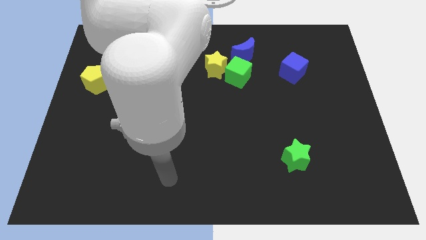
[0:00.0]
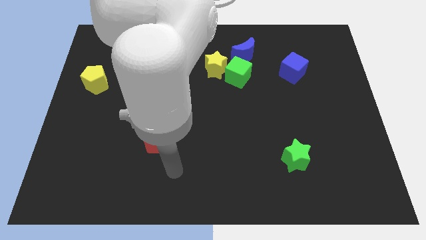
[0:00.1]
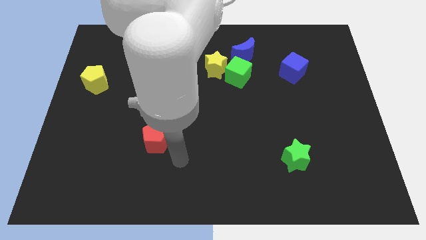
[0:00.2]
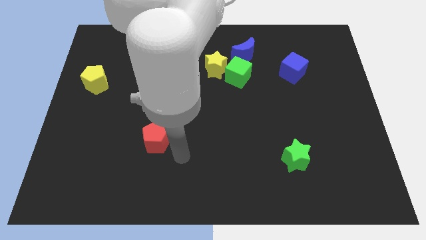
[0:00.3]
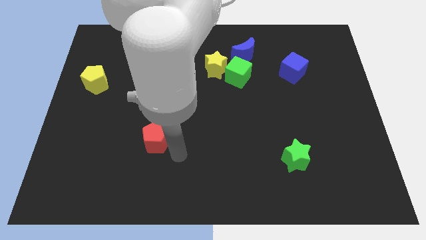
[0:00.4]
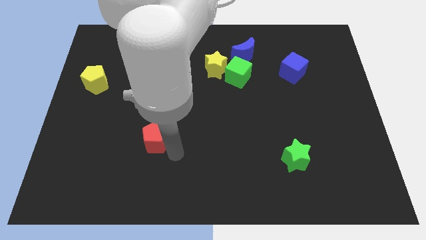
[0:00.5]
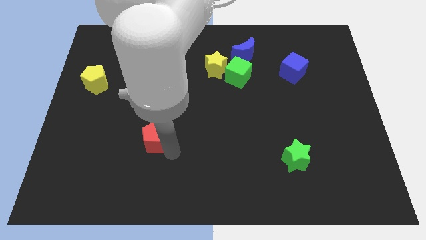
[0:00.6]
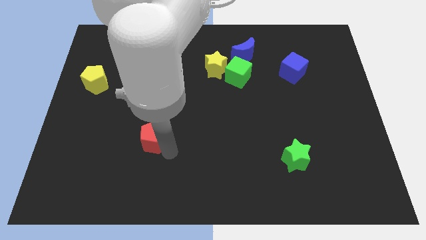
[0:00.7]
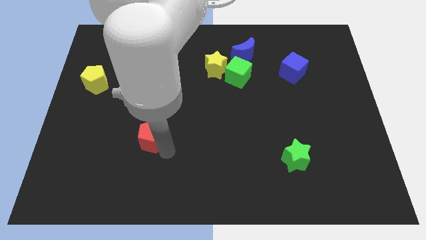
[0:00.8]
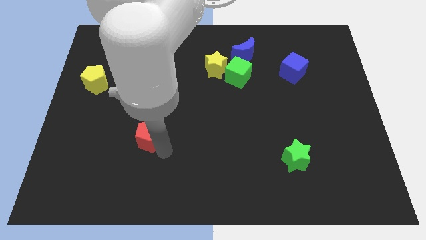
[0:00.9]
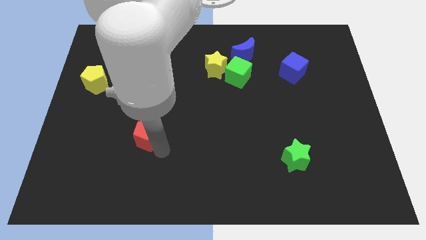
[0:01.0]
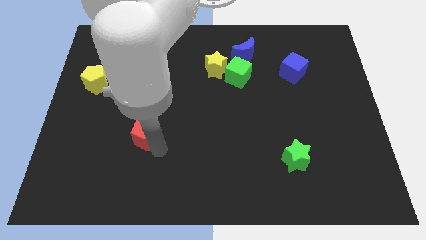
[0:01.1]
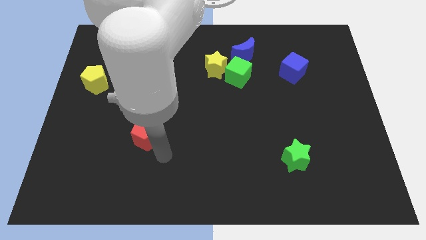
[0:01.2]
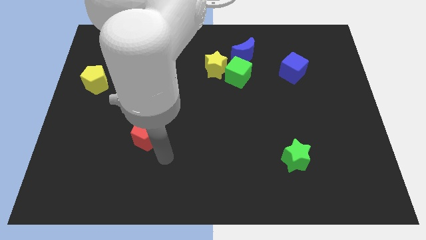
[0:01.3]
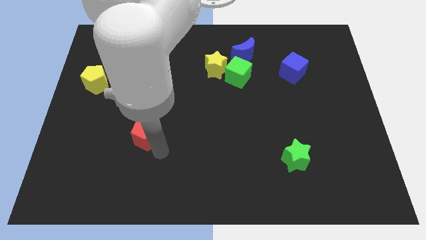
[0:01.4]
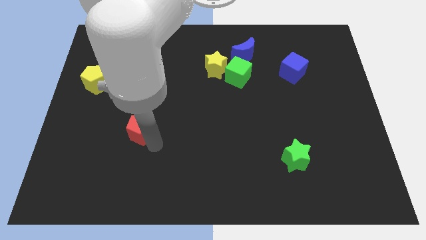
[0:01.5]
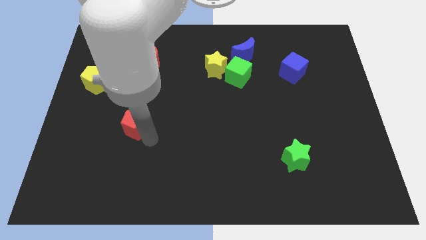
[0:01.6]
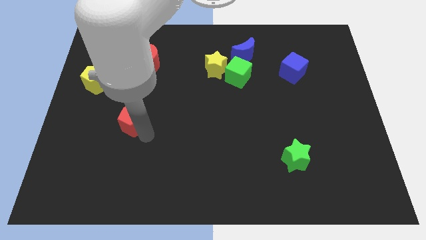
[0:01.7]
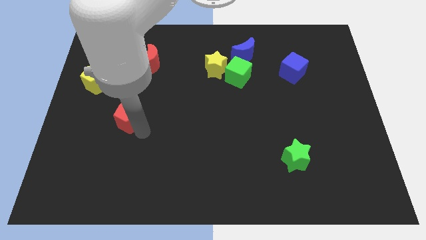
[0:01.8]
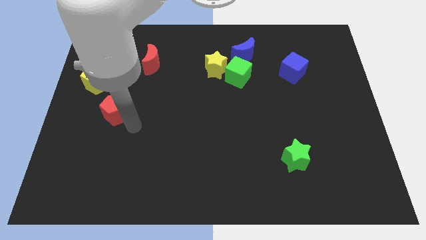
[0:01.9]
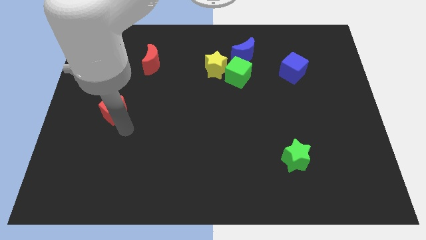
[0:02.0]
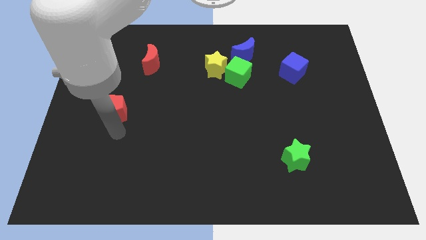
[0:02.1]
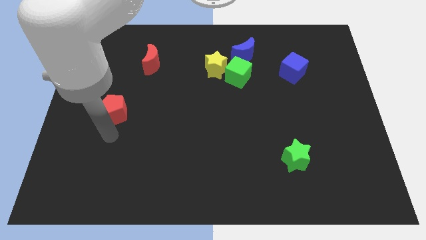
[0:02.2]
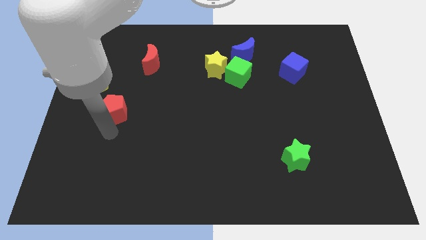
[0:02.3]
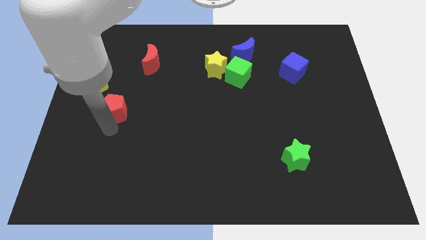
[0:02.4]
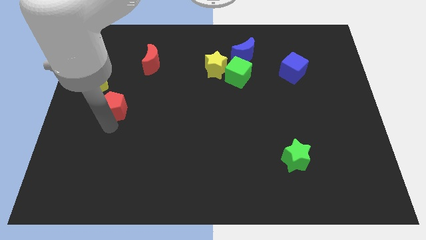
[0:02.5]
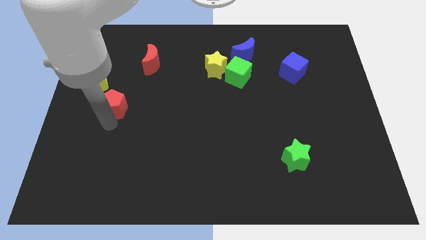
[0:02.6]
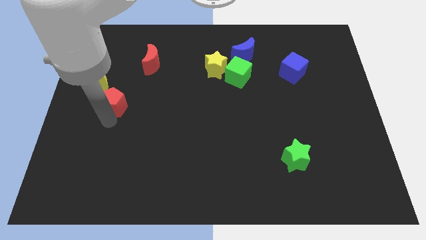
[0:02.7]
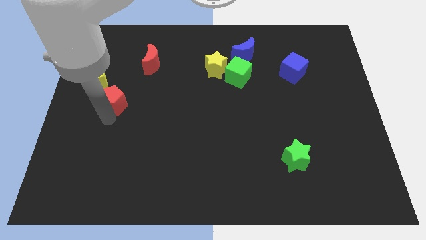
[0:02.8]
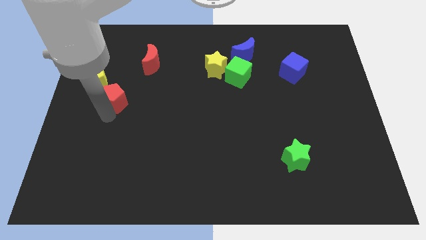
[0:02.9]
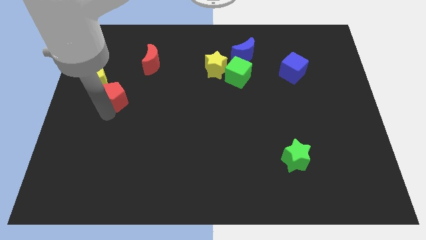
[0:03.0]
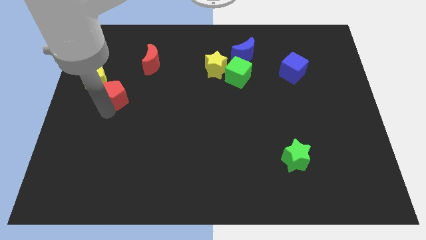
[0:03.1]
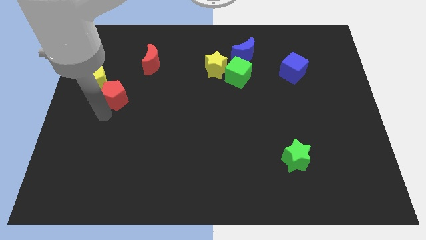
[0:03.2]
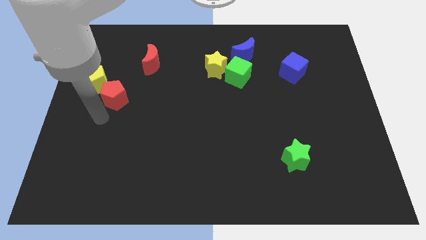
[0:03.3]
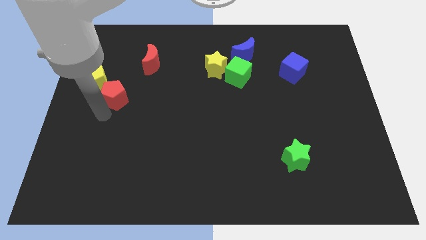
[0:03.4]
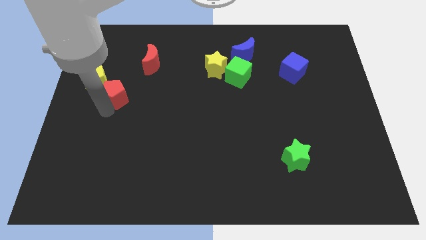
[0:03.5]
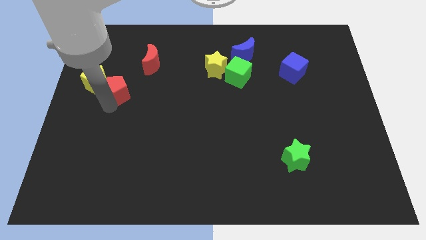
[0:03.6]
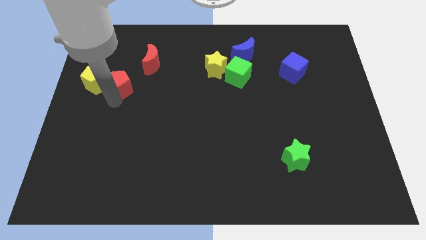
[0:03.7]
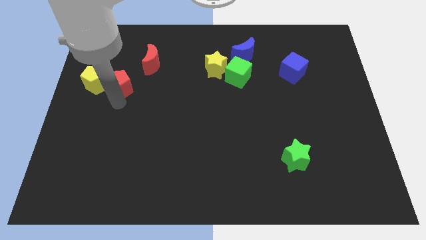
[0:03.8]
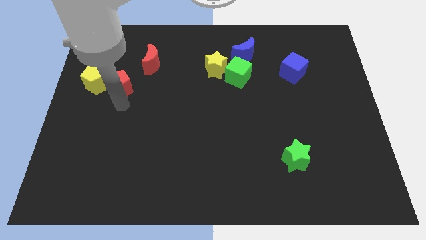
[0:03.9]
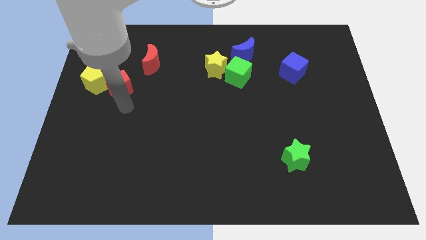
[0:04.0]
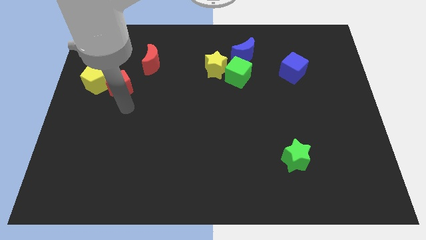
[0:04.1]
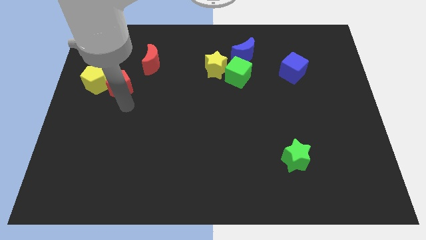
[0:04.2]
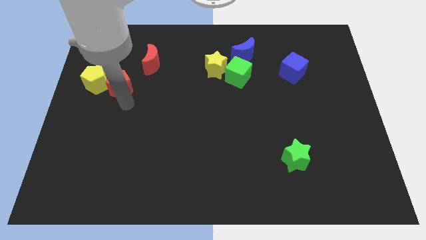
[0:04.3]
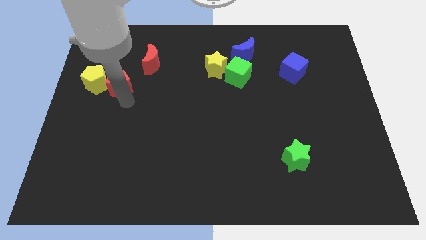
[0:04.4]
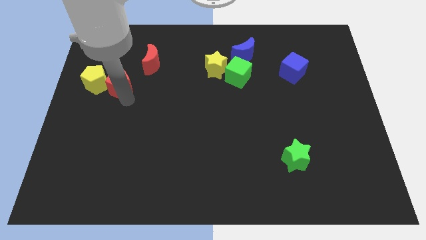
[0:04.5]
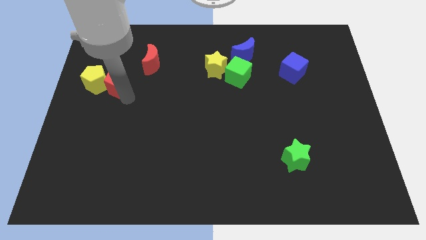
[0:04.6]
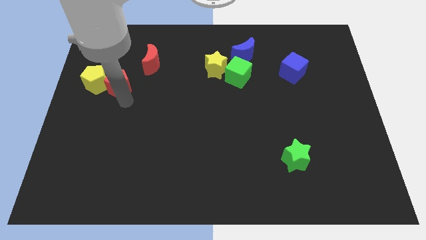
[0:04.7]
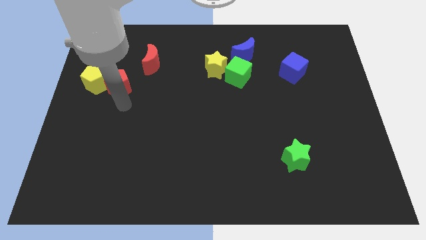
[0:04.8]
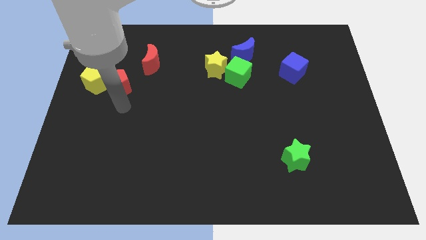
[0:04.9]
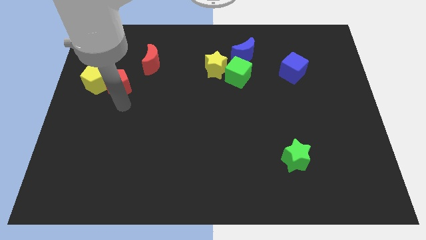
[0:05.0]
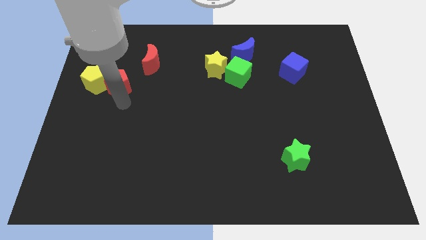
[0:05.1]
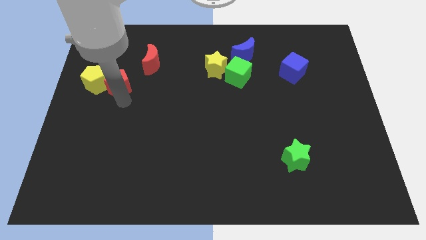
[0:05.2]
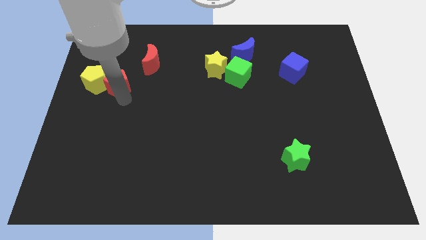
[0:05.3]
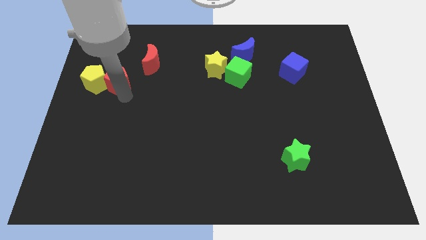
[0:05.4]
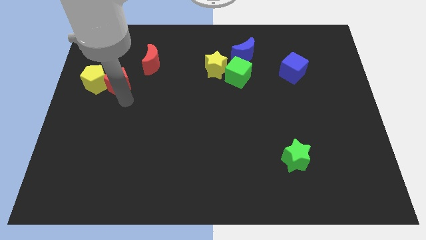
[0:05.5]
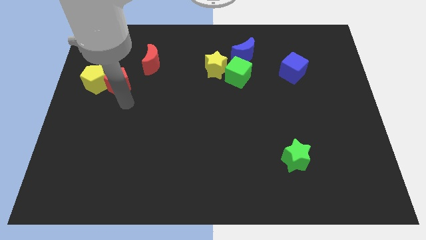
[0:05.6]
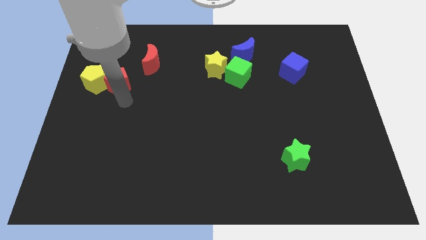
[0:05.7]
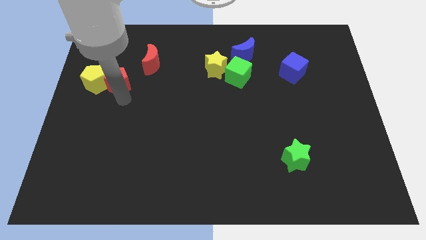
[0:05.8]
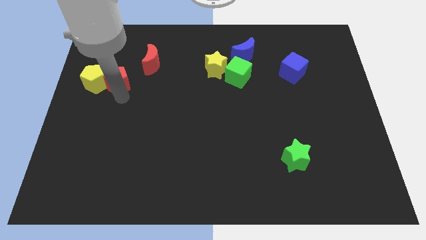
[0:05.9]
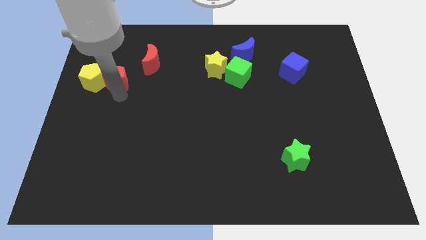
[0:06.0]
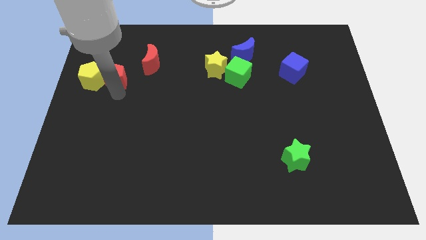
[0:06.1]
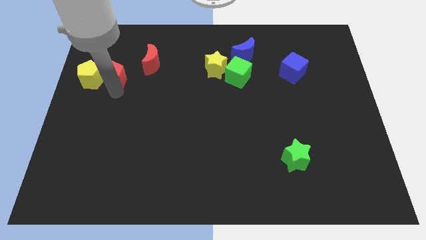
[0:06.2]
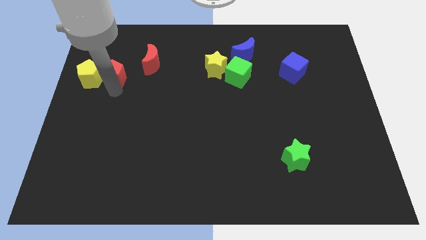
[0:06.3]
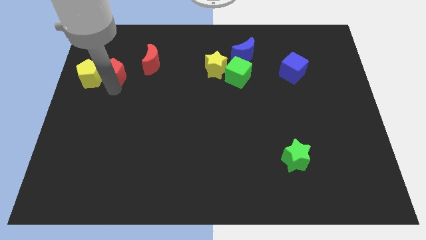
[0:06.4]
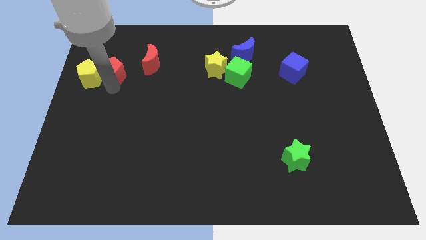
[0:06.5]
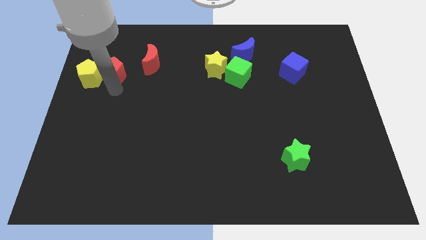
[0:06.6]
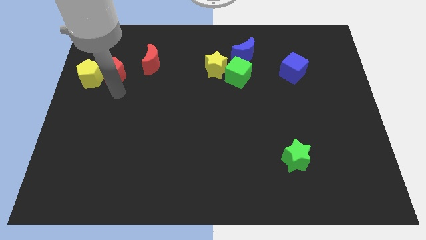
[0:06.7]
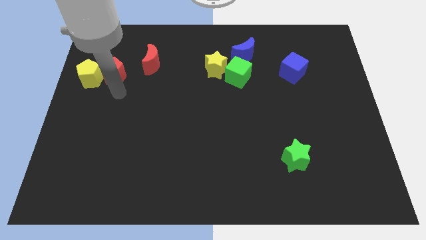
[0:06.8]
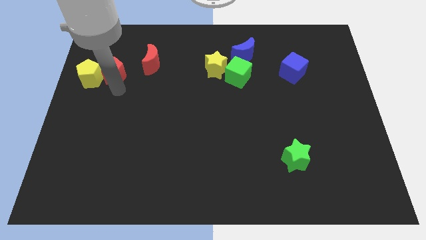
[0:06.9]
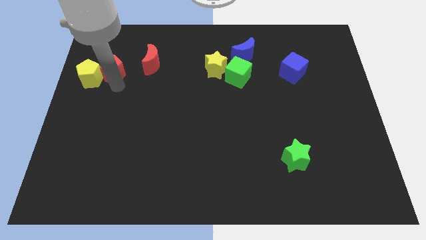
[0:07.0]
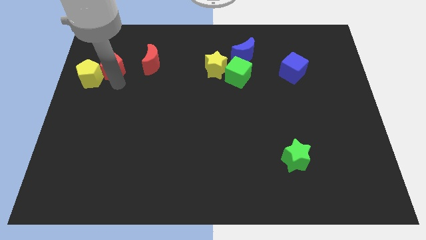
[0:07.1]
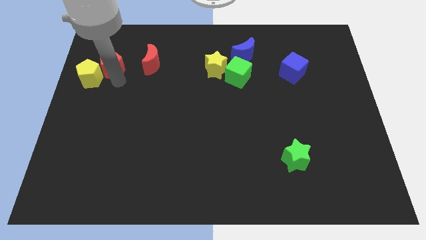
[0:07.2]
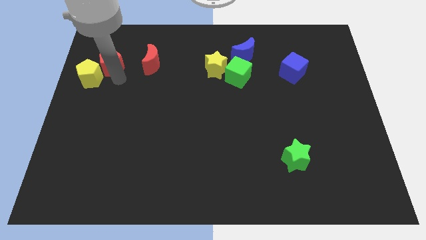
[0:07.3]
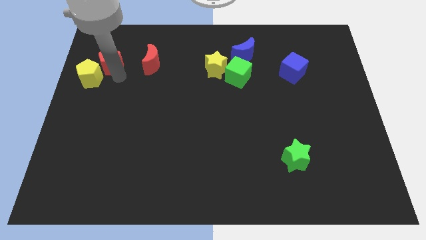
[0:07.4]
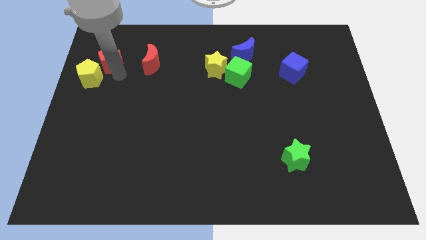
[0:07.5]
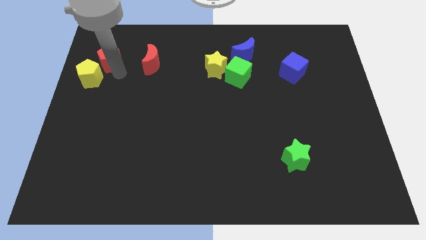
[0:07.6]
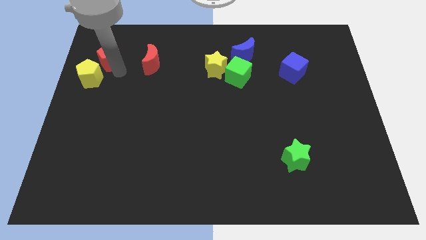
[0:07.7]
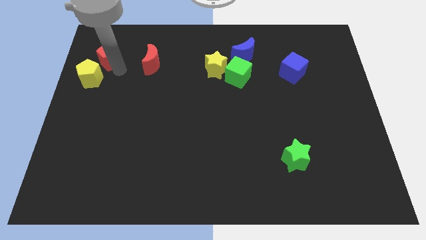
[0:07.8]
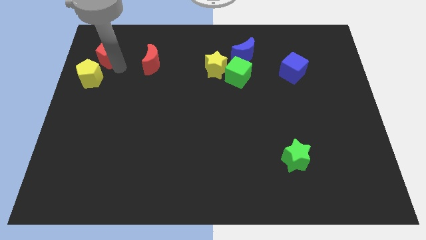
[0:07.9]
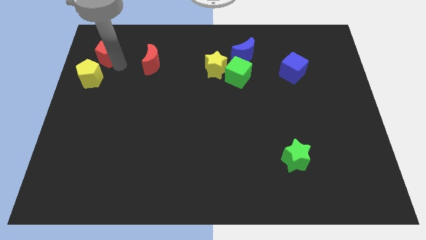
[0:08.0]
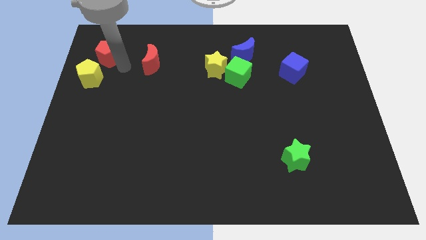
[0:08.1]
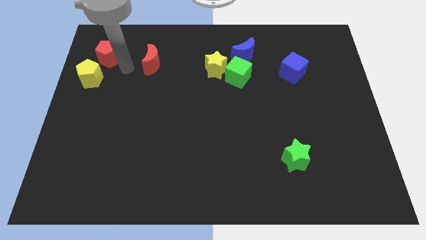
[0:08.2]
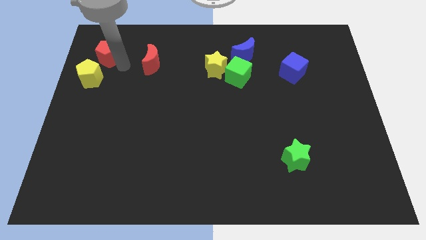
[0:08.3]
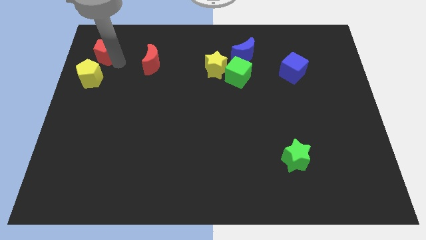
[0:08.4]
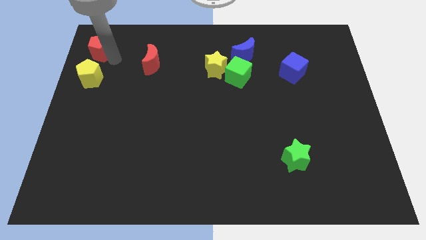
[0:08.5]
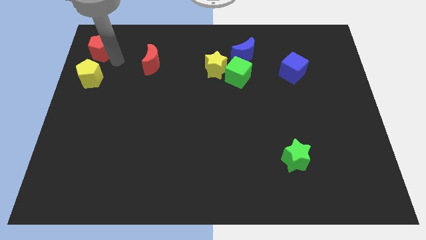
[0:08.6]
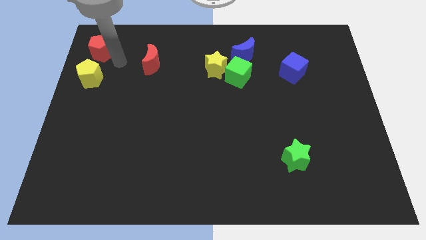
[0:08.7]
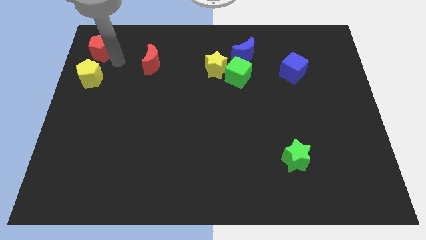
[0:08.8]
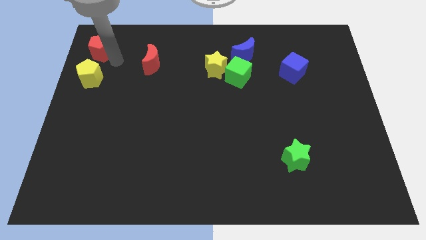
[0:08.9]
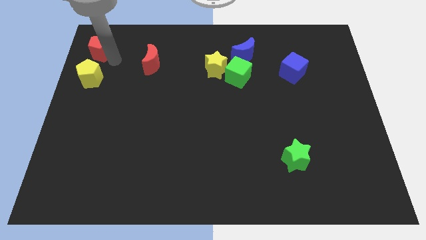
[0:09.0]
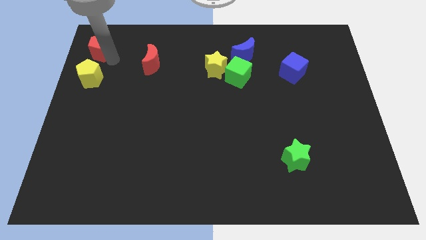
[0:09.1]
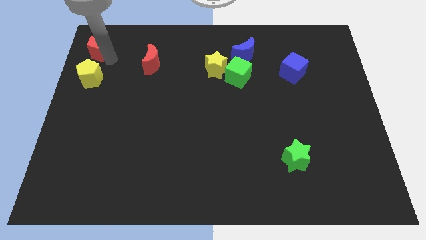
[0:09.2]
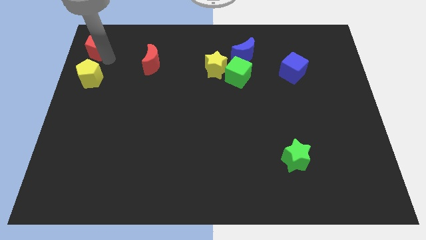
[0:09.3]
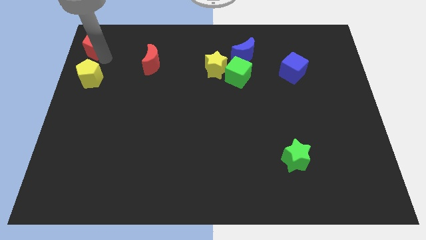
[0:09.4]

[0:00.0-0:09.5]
move the red pentagon to the top left of the board
